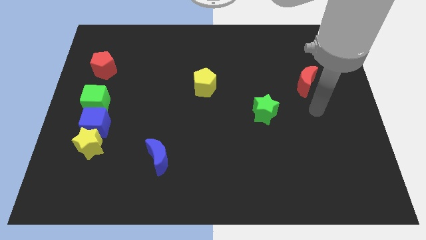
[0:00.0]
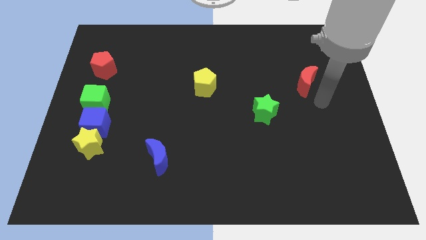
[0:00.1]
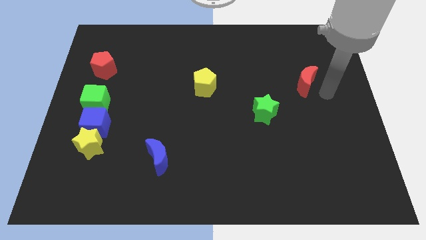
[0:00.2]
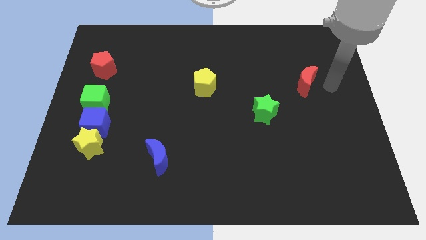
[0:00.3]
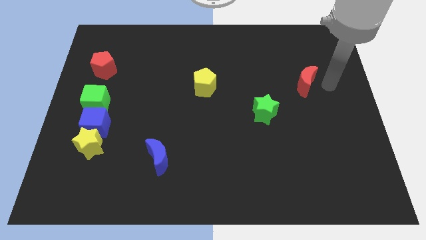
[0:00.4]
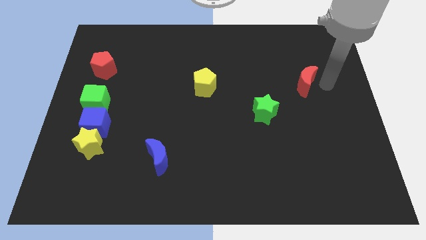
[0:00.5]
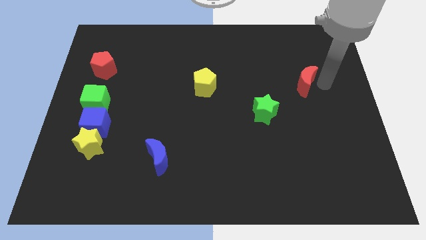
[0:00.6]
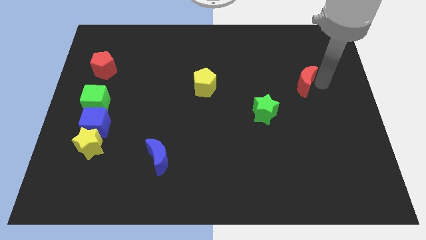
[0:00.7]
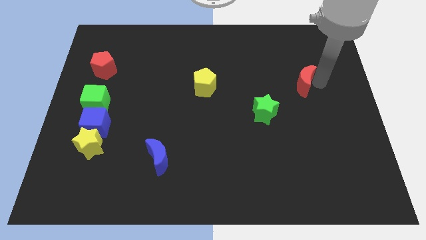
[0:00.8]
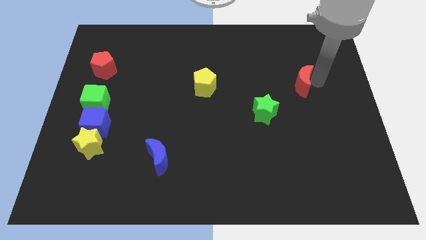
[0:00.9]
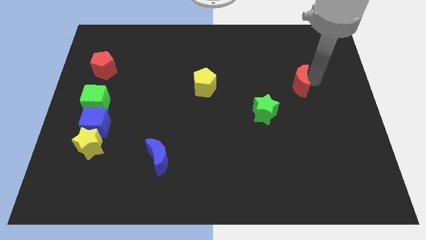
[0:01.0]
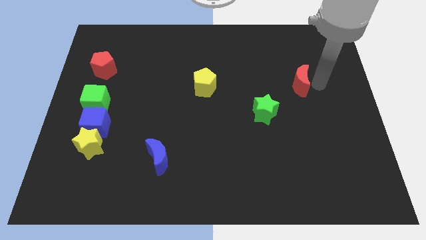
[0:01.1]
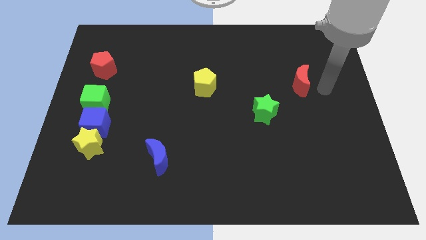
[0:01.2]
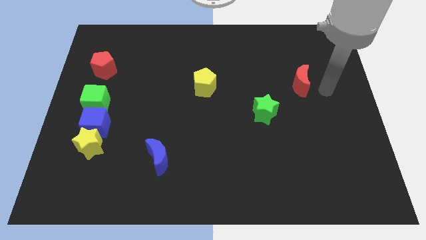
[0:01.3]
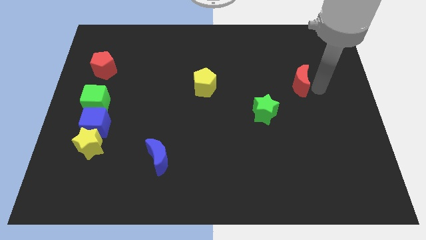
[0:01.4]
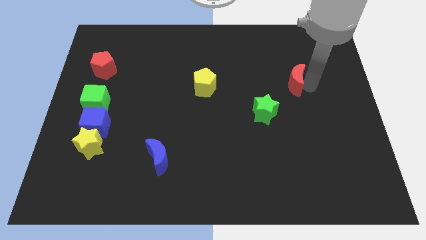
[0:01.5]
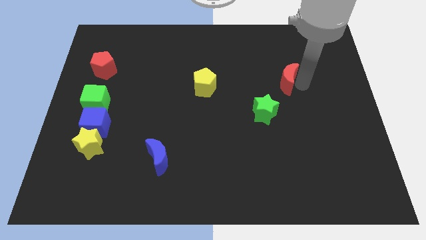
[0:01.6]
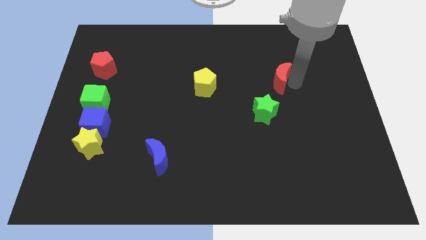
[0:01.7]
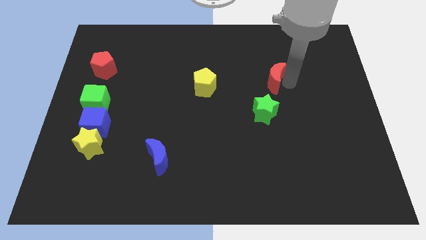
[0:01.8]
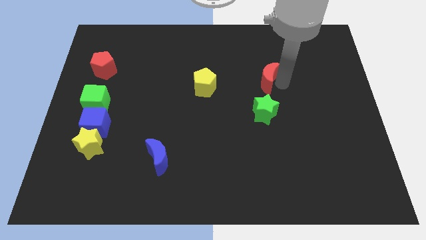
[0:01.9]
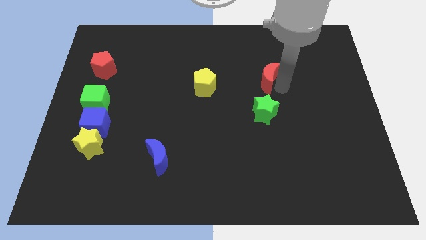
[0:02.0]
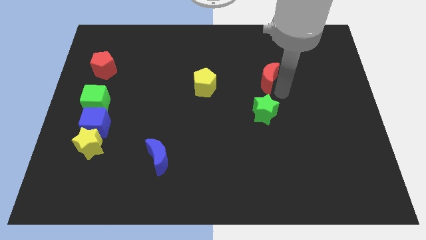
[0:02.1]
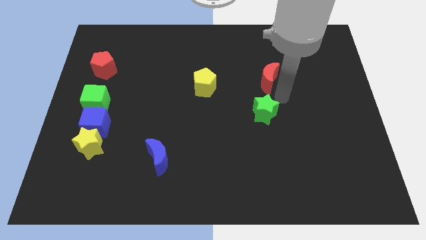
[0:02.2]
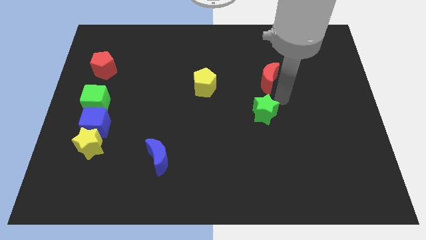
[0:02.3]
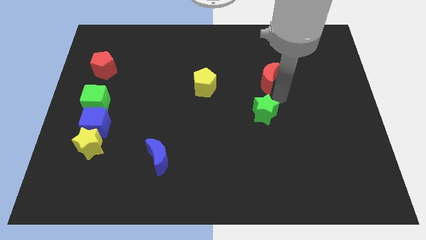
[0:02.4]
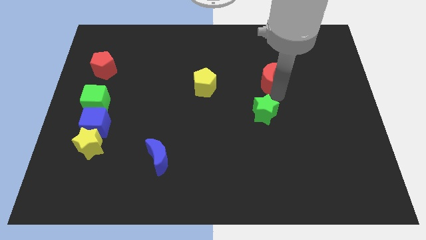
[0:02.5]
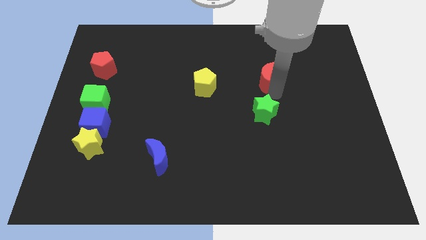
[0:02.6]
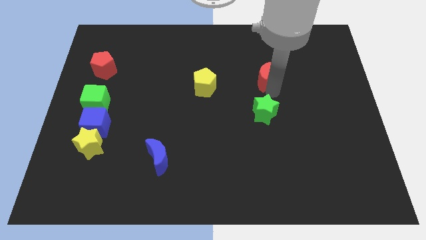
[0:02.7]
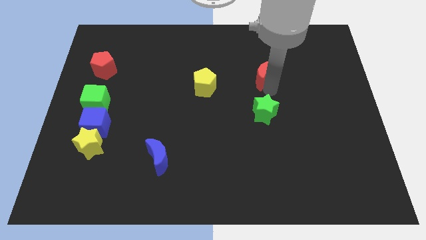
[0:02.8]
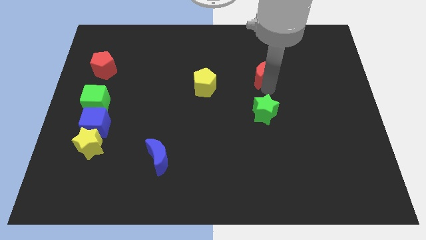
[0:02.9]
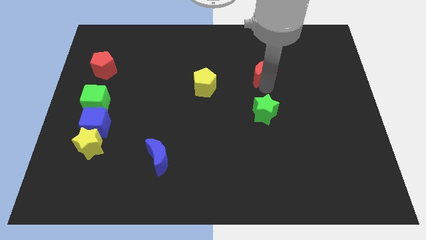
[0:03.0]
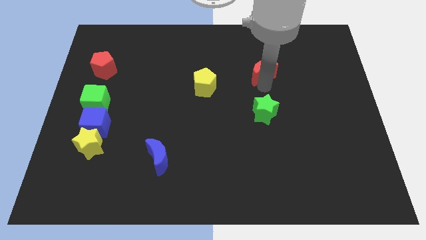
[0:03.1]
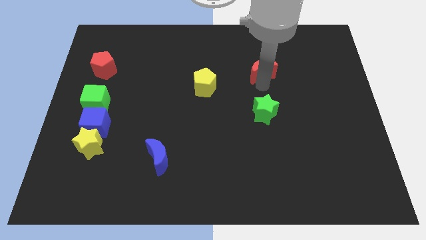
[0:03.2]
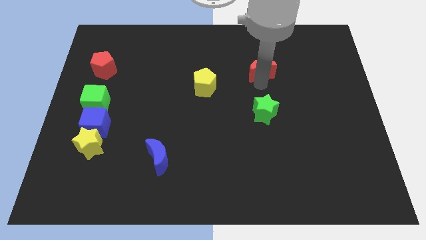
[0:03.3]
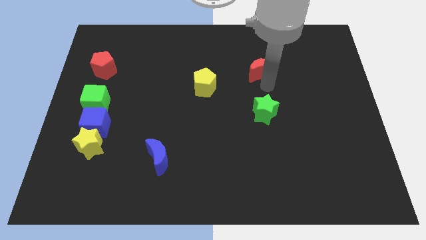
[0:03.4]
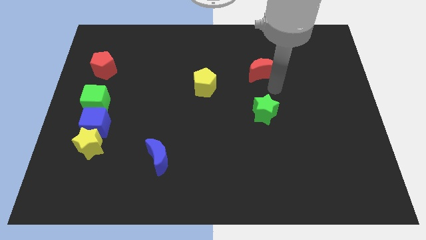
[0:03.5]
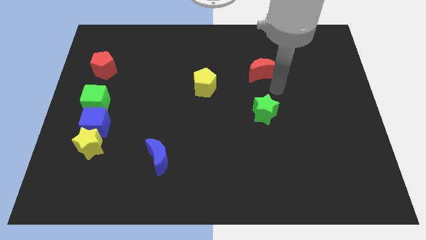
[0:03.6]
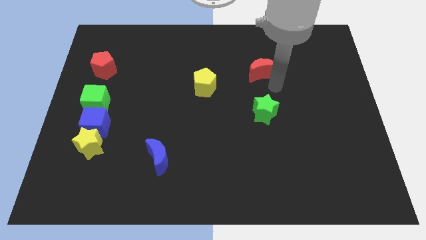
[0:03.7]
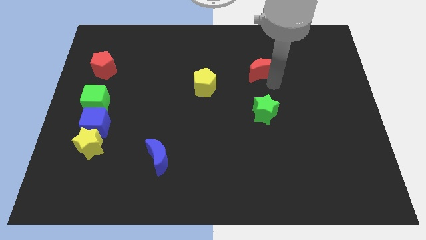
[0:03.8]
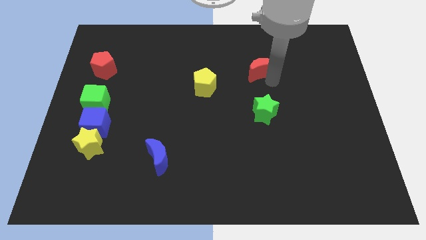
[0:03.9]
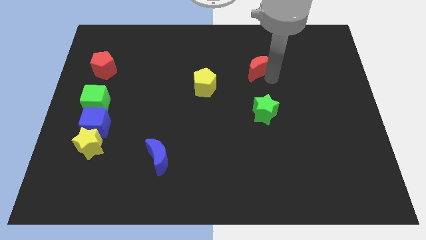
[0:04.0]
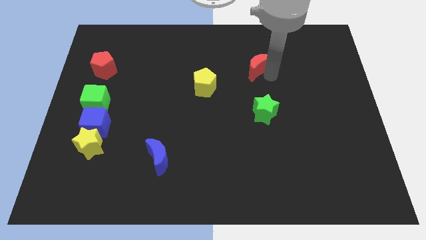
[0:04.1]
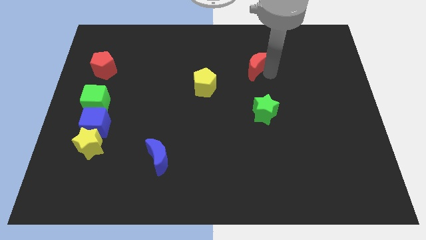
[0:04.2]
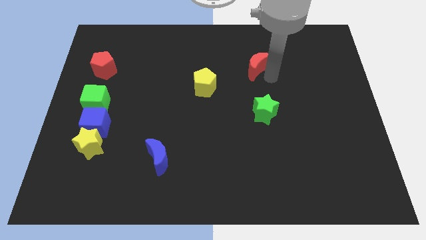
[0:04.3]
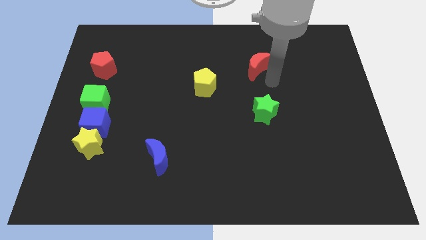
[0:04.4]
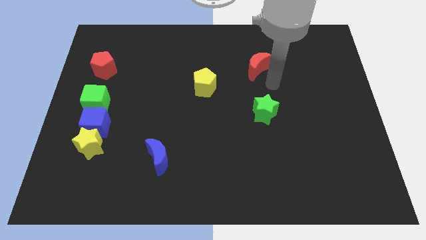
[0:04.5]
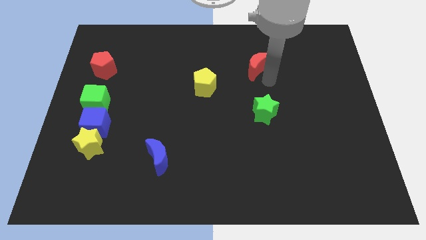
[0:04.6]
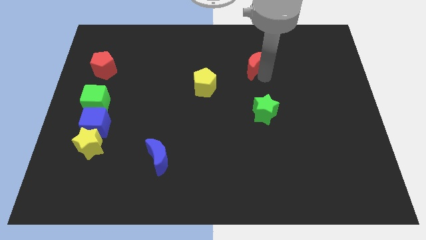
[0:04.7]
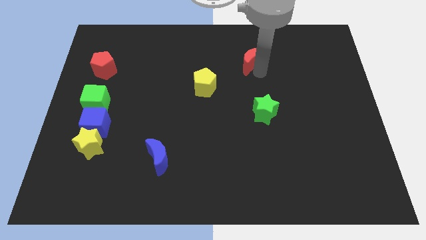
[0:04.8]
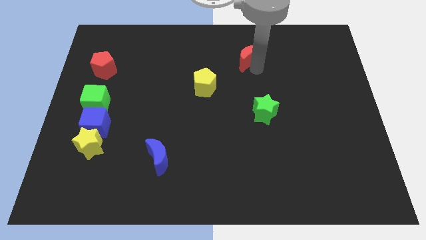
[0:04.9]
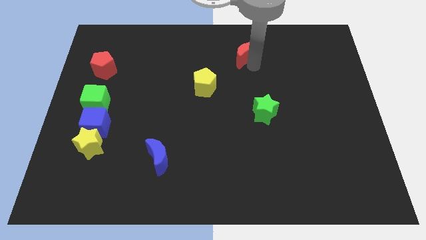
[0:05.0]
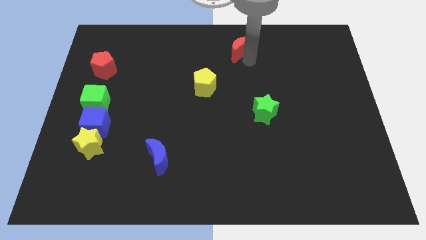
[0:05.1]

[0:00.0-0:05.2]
slide the red moon to the towards your base

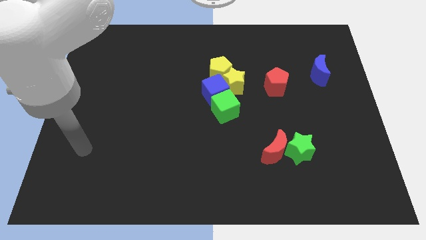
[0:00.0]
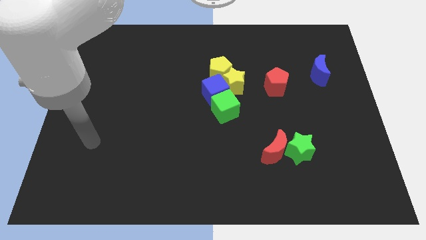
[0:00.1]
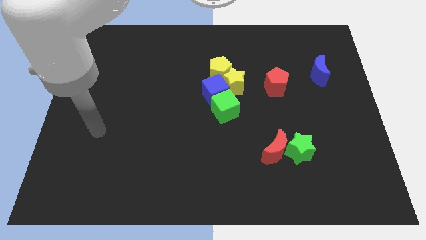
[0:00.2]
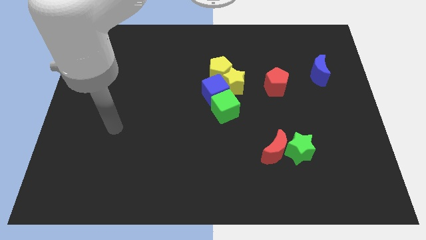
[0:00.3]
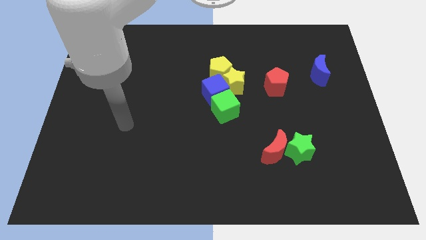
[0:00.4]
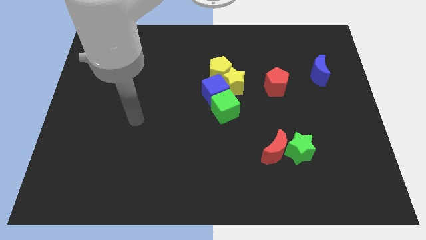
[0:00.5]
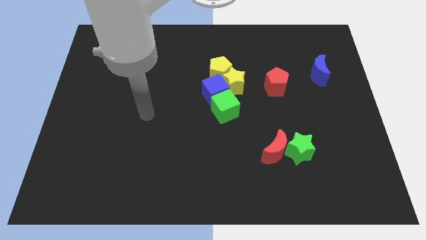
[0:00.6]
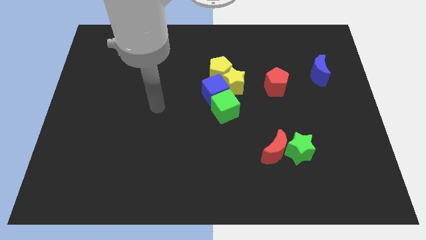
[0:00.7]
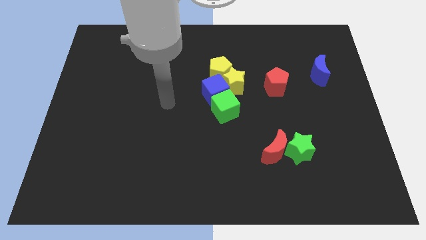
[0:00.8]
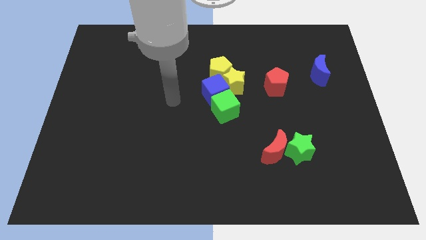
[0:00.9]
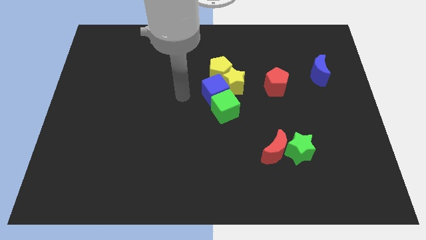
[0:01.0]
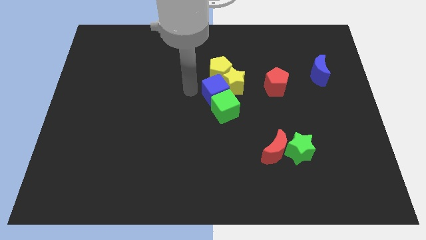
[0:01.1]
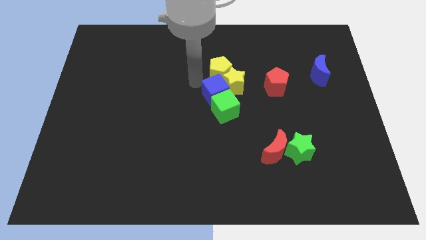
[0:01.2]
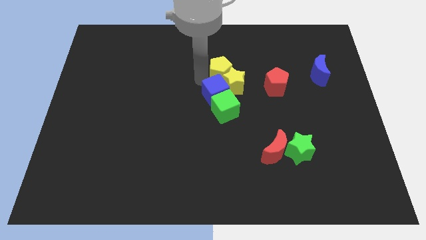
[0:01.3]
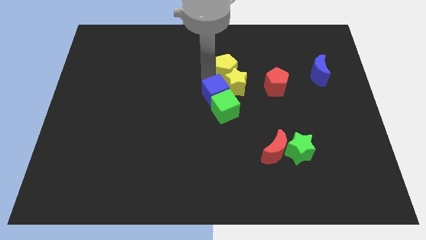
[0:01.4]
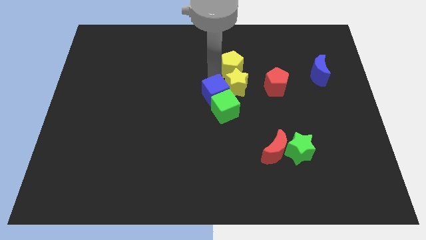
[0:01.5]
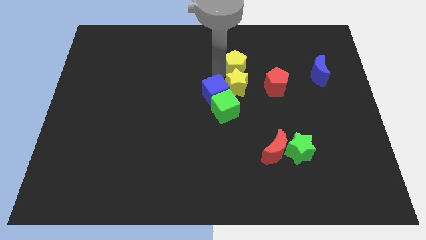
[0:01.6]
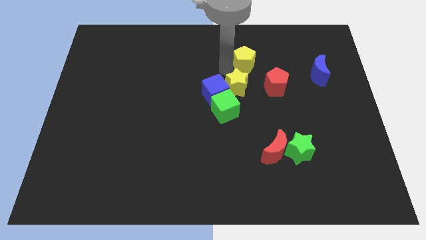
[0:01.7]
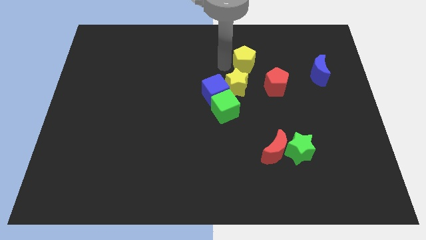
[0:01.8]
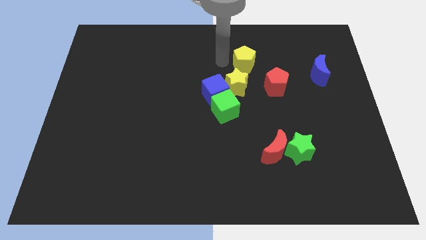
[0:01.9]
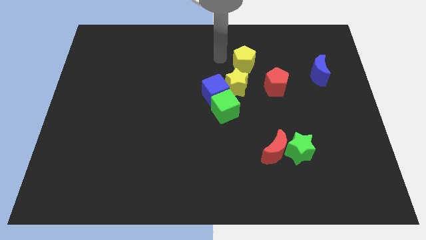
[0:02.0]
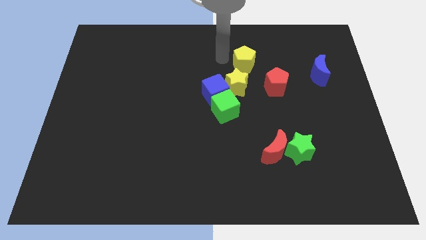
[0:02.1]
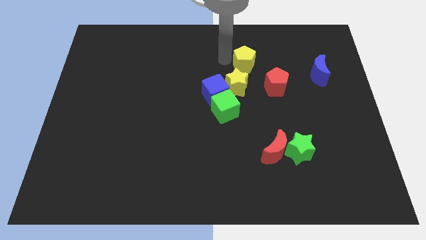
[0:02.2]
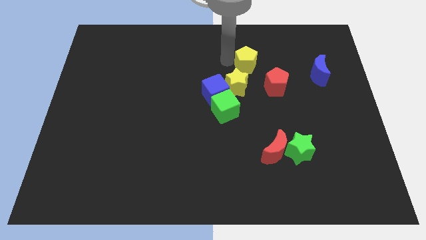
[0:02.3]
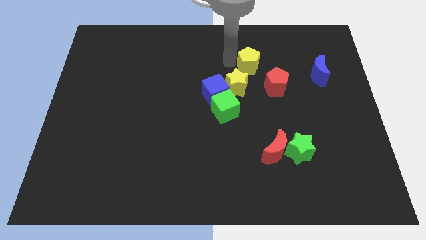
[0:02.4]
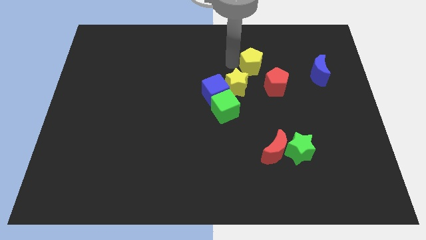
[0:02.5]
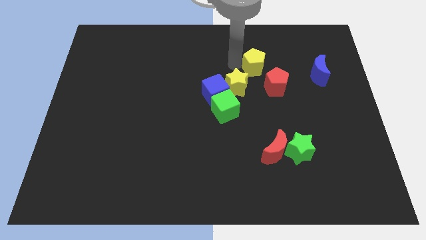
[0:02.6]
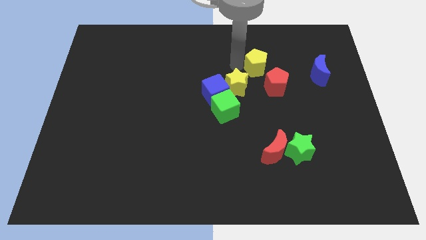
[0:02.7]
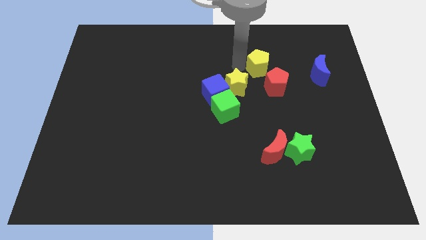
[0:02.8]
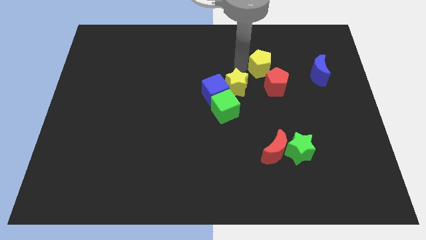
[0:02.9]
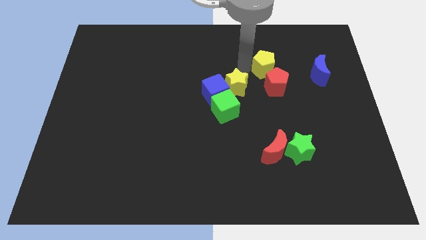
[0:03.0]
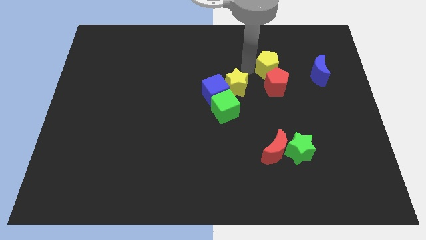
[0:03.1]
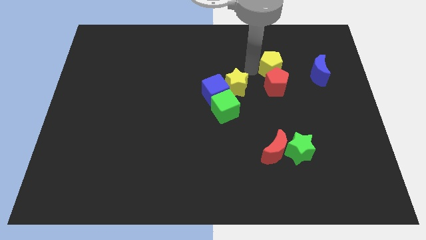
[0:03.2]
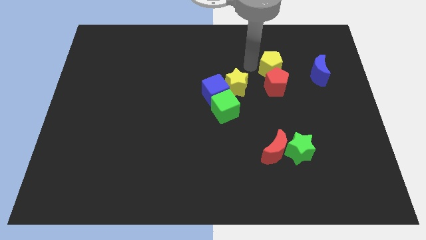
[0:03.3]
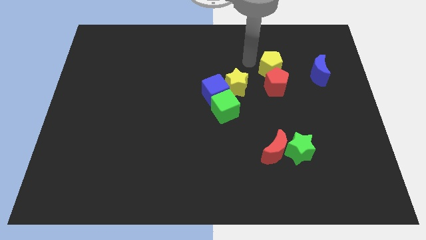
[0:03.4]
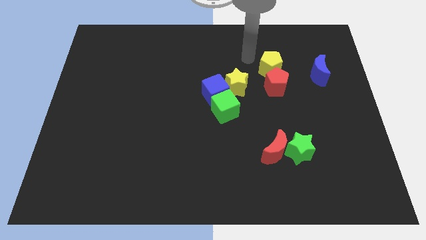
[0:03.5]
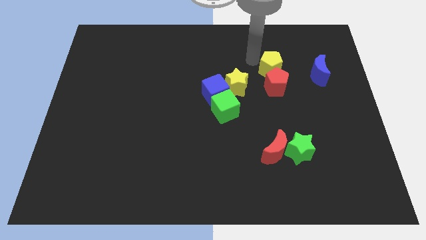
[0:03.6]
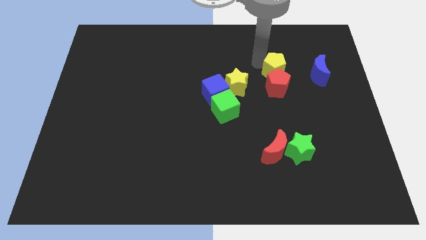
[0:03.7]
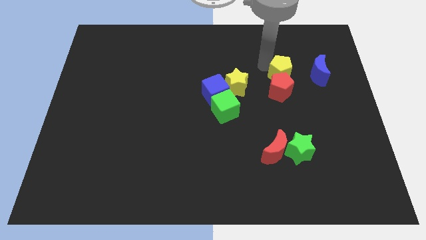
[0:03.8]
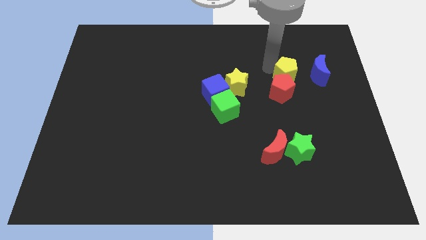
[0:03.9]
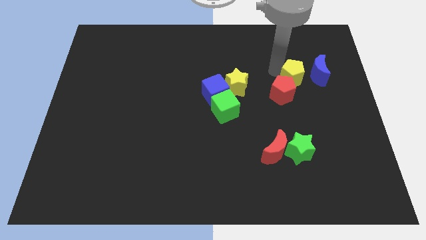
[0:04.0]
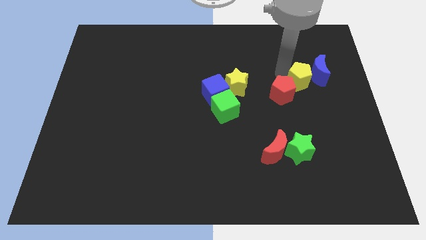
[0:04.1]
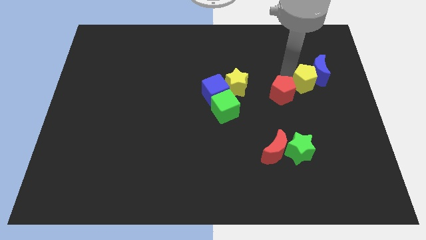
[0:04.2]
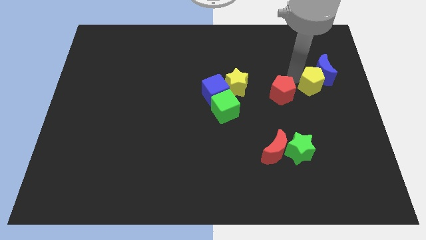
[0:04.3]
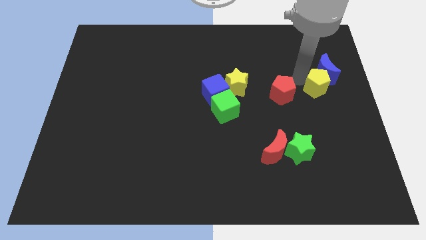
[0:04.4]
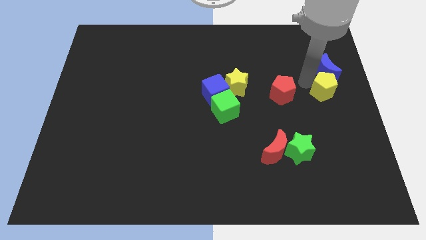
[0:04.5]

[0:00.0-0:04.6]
put the yellow pentagon to the right side
